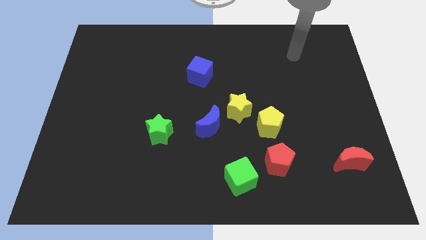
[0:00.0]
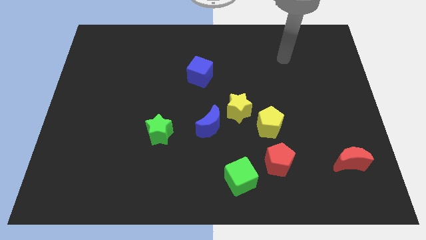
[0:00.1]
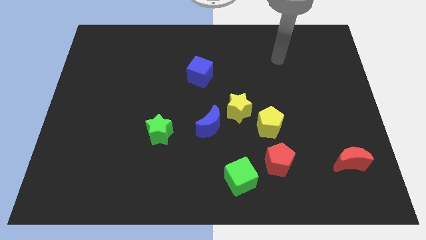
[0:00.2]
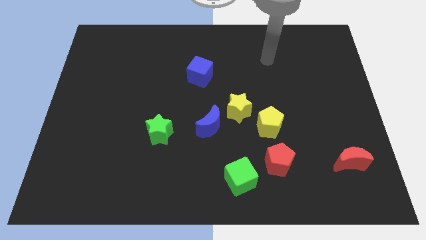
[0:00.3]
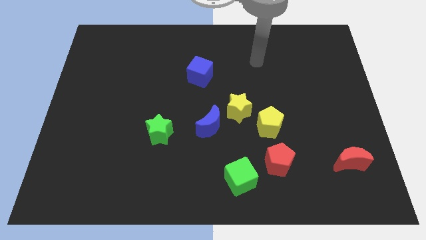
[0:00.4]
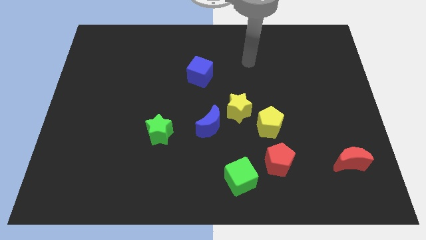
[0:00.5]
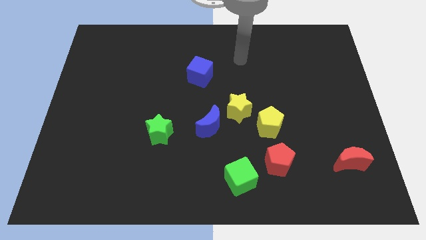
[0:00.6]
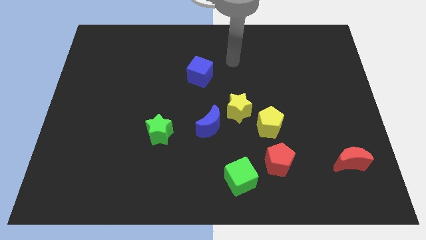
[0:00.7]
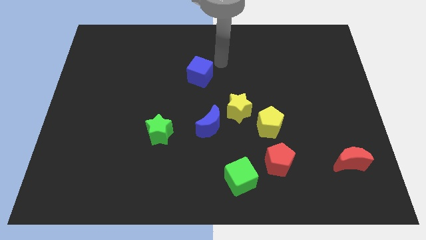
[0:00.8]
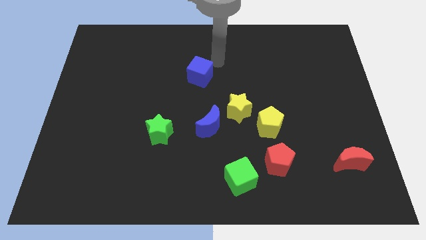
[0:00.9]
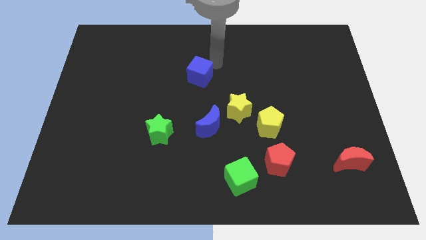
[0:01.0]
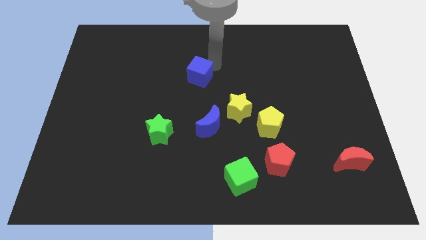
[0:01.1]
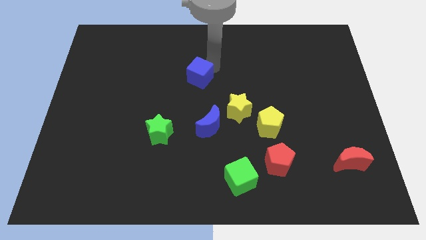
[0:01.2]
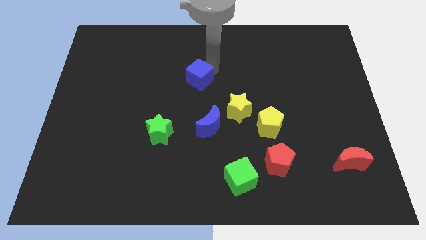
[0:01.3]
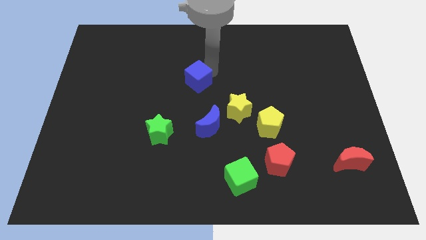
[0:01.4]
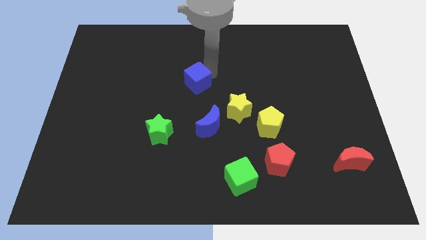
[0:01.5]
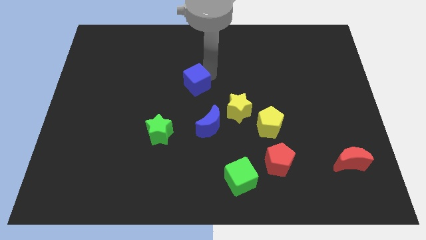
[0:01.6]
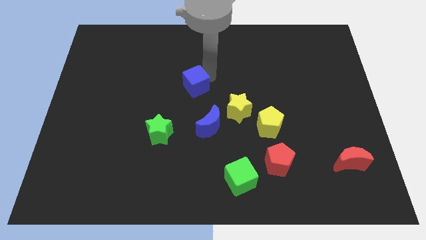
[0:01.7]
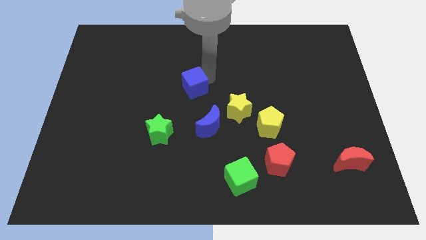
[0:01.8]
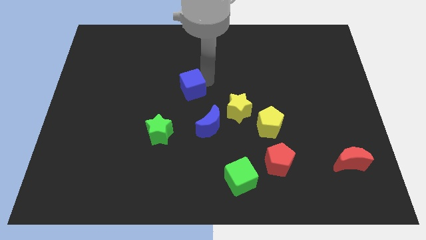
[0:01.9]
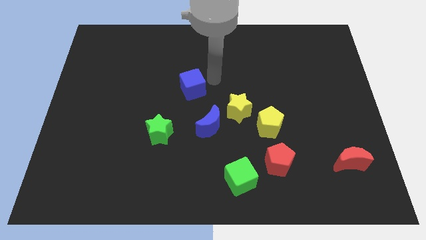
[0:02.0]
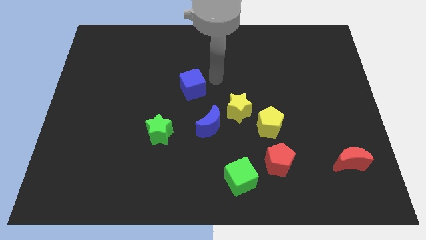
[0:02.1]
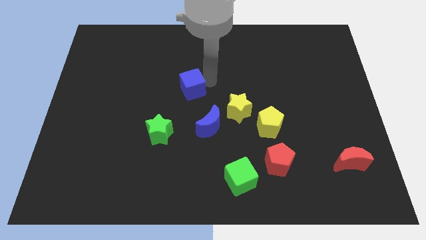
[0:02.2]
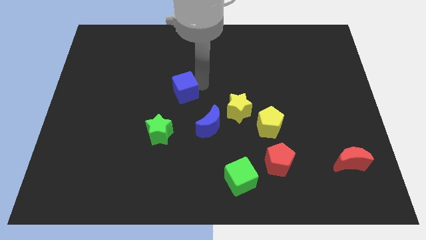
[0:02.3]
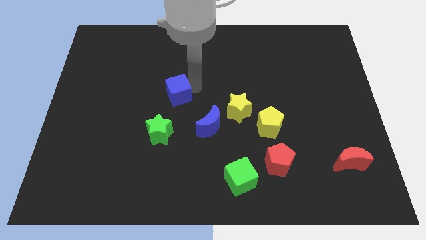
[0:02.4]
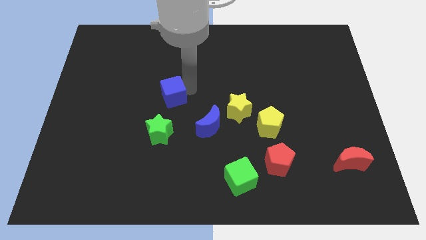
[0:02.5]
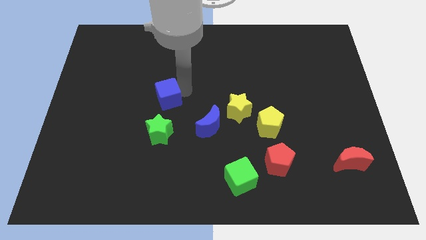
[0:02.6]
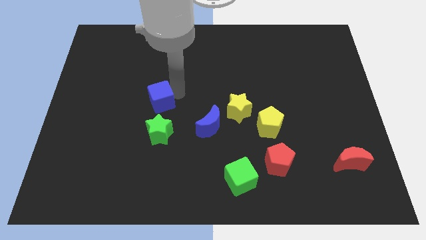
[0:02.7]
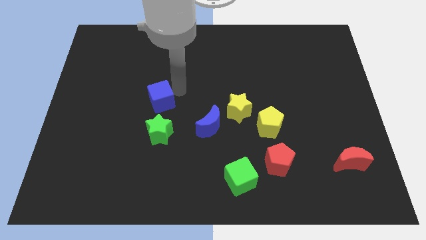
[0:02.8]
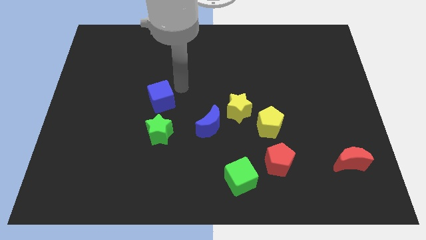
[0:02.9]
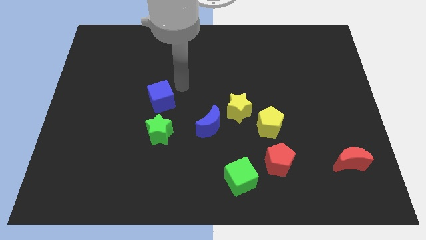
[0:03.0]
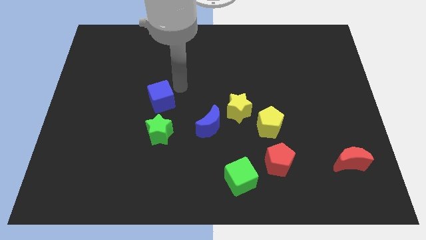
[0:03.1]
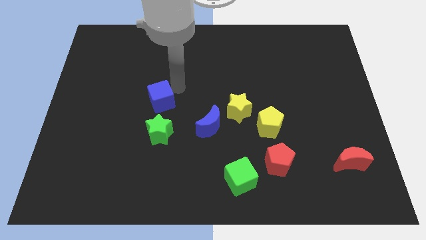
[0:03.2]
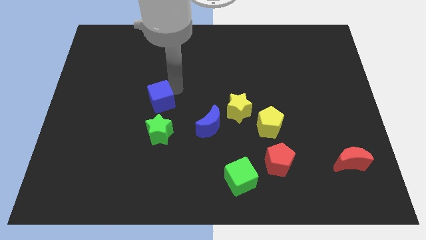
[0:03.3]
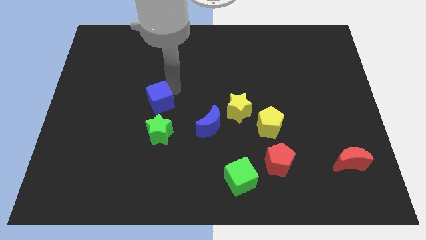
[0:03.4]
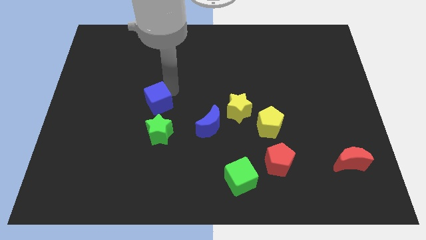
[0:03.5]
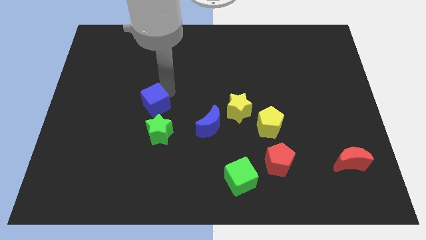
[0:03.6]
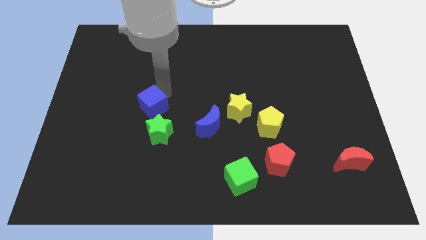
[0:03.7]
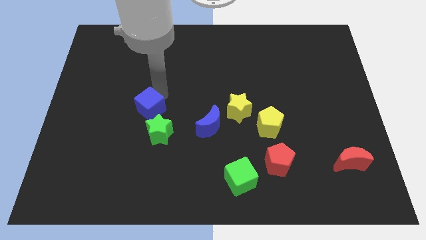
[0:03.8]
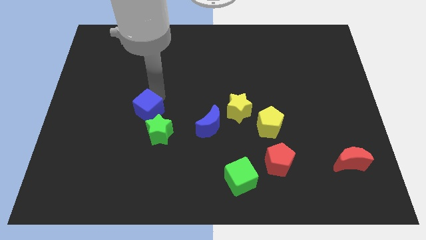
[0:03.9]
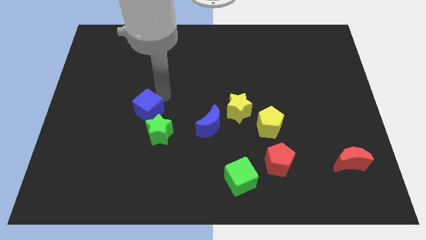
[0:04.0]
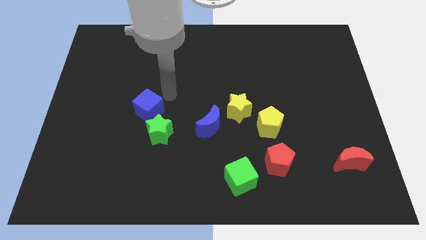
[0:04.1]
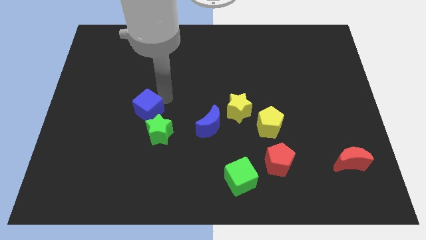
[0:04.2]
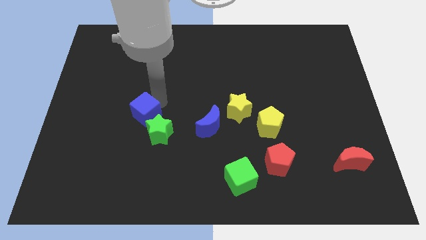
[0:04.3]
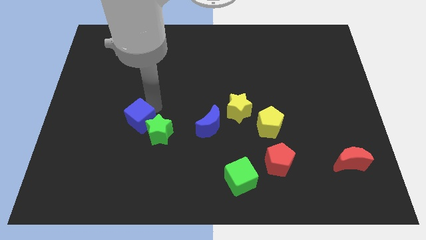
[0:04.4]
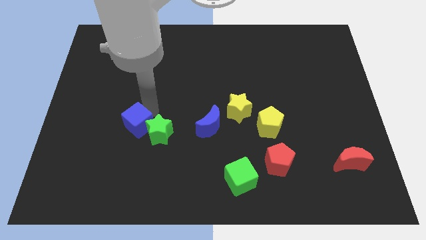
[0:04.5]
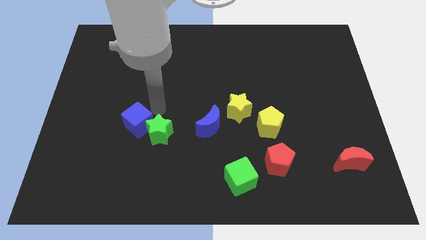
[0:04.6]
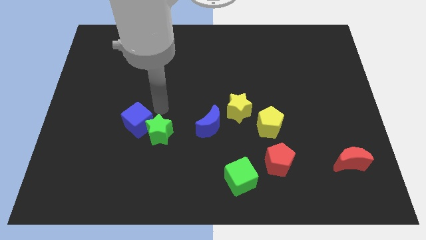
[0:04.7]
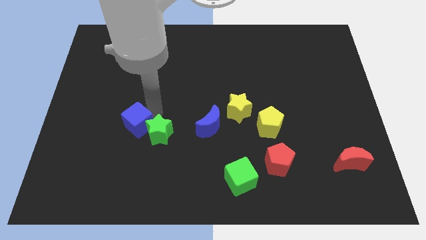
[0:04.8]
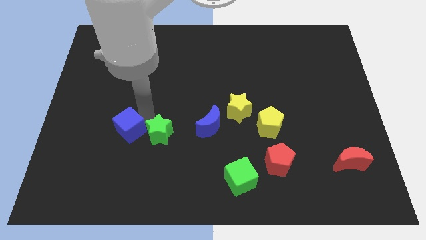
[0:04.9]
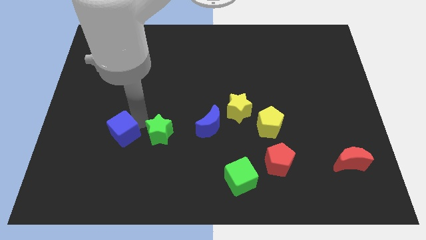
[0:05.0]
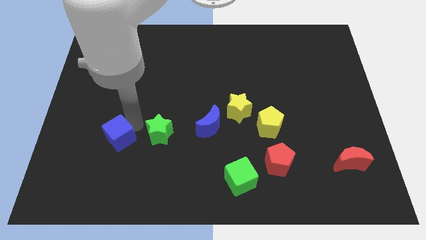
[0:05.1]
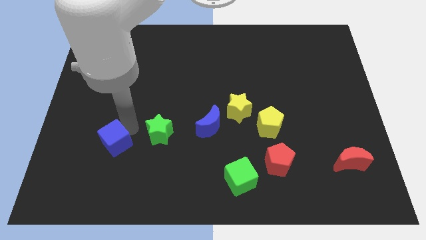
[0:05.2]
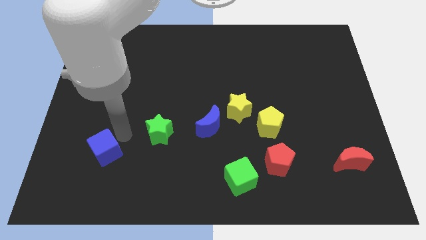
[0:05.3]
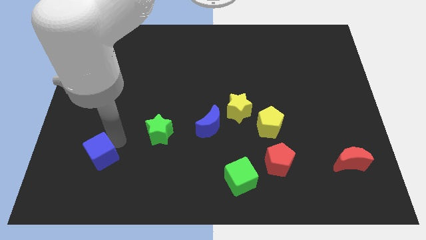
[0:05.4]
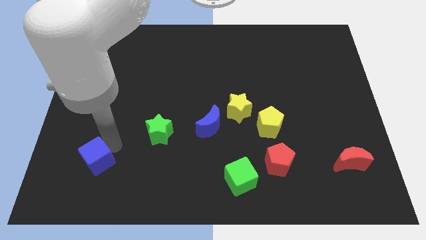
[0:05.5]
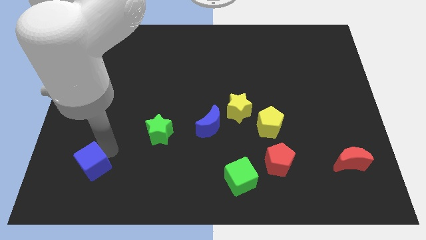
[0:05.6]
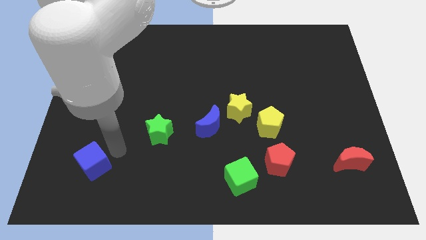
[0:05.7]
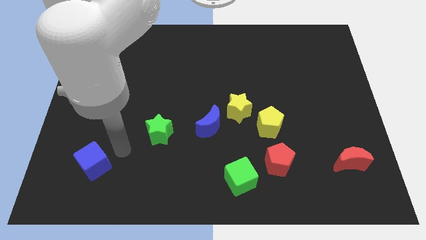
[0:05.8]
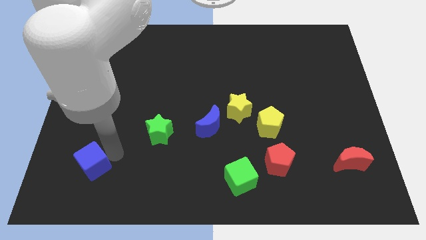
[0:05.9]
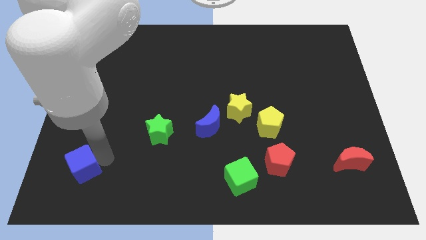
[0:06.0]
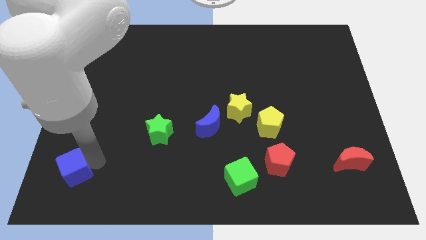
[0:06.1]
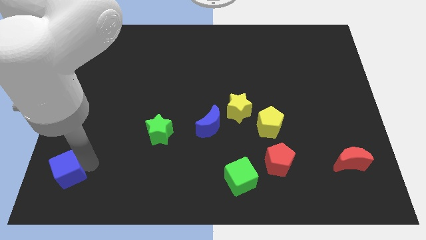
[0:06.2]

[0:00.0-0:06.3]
put the blue cube to the bottom left of the board
